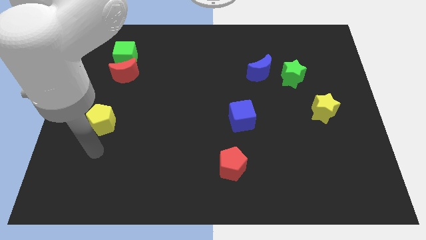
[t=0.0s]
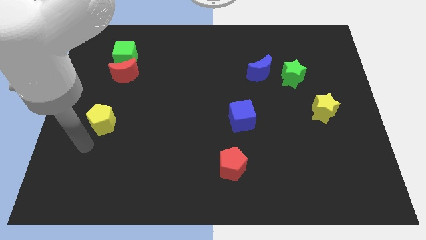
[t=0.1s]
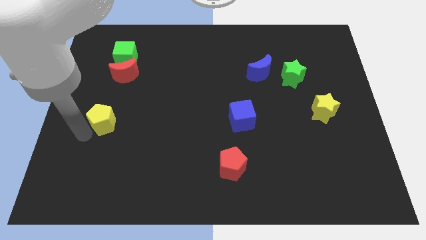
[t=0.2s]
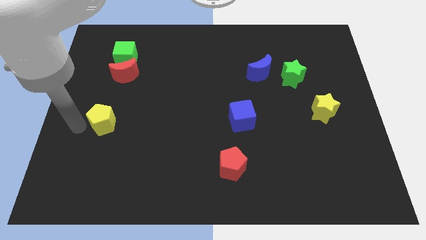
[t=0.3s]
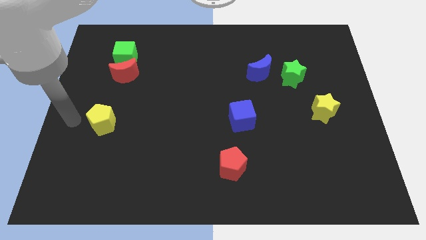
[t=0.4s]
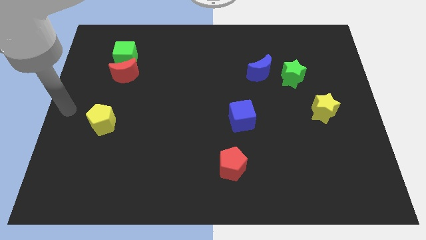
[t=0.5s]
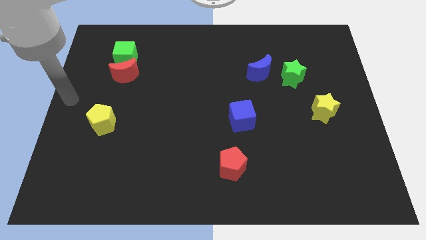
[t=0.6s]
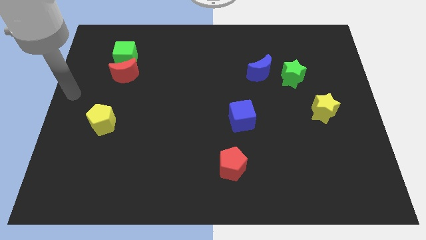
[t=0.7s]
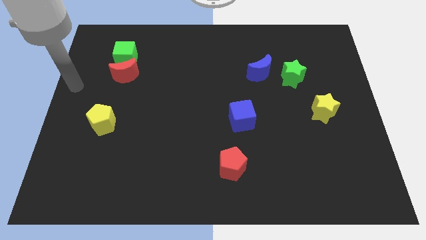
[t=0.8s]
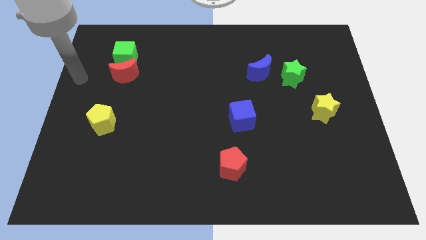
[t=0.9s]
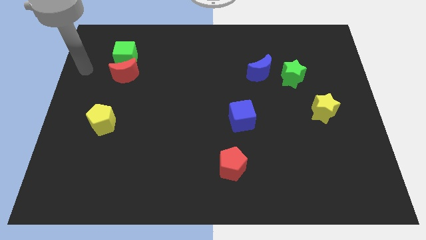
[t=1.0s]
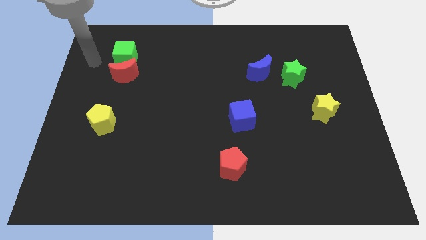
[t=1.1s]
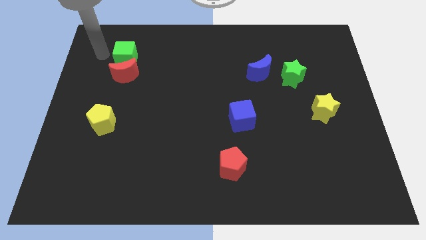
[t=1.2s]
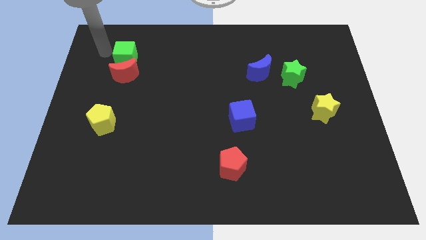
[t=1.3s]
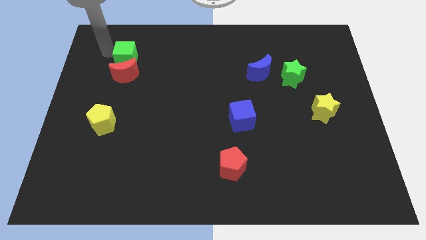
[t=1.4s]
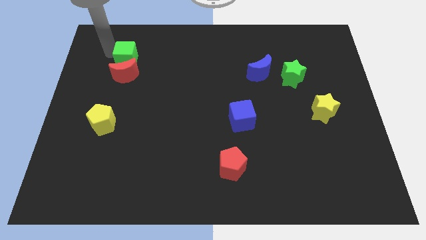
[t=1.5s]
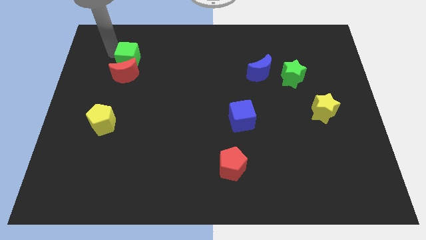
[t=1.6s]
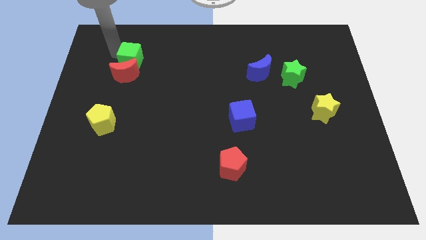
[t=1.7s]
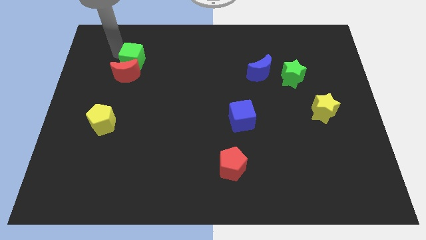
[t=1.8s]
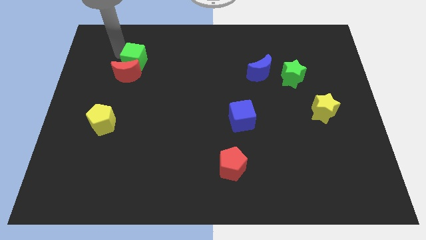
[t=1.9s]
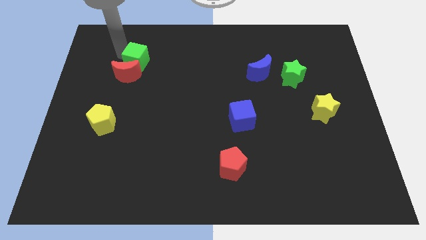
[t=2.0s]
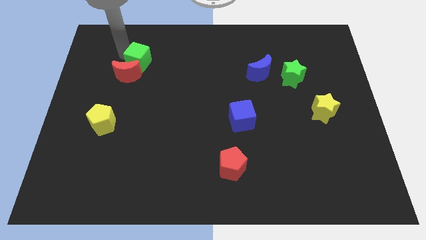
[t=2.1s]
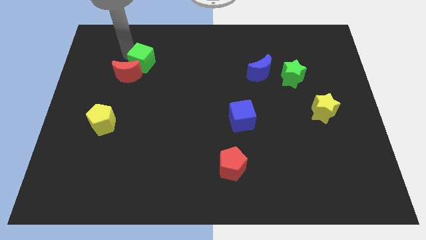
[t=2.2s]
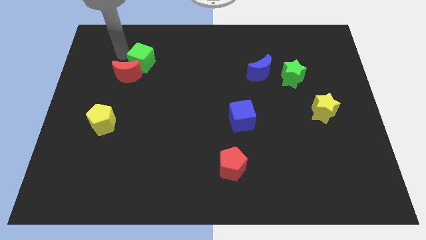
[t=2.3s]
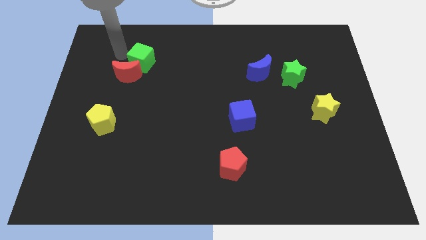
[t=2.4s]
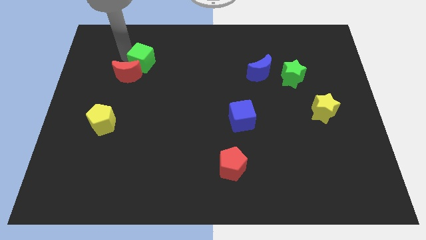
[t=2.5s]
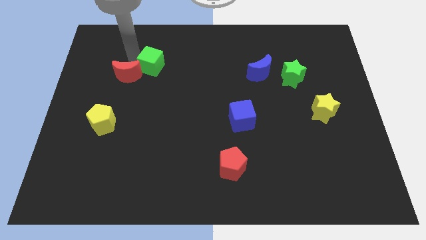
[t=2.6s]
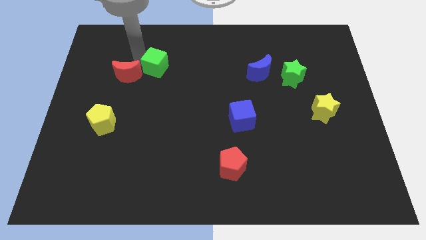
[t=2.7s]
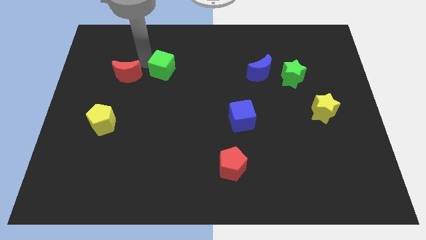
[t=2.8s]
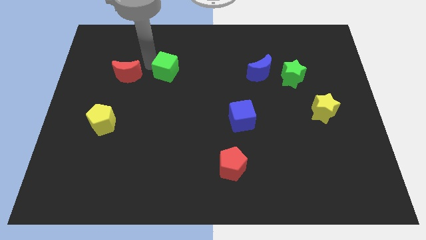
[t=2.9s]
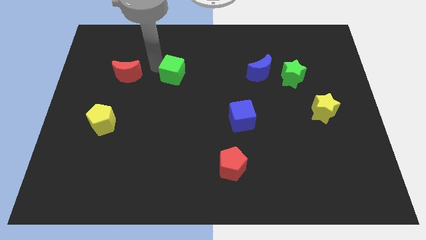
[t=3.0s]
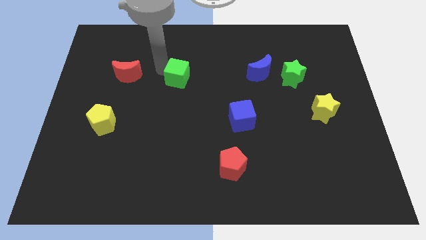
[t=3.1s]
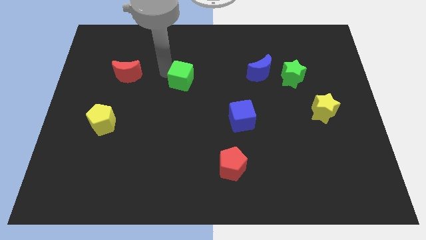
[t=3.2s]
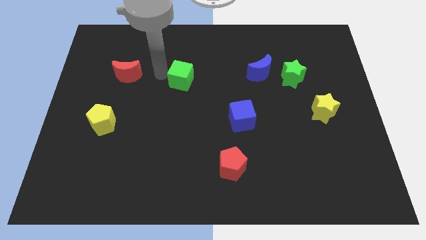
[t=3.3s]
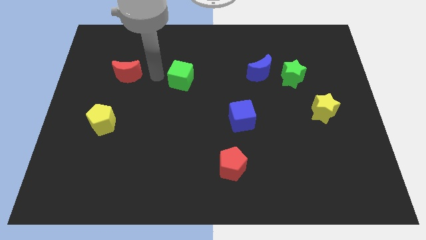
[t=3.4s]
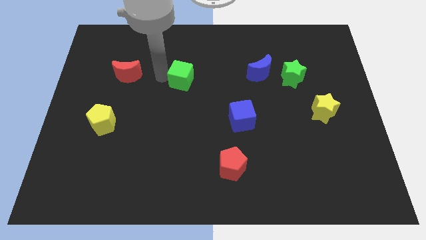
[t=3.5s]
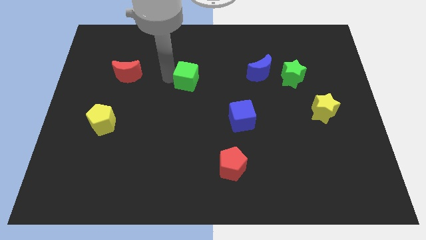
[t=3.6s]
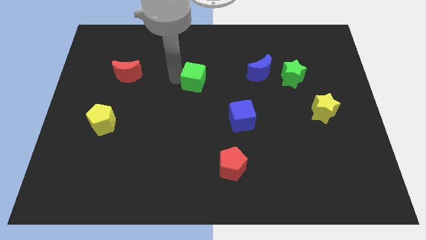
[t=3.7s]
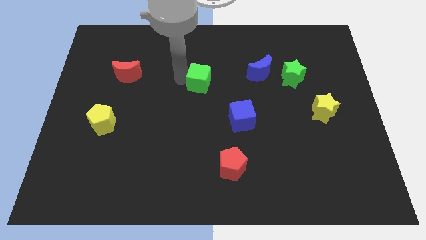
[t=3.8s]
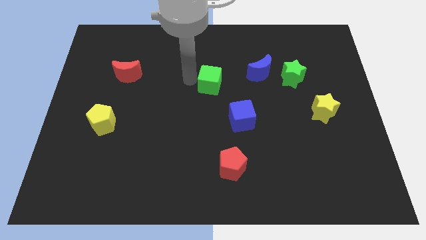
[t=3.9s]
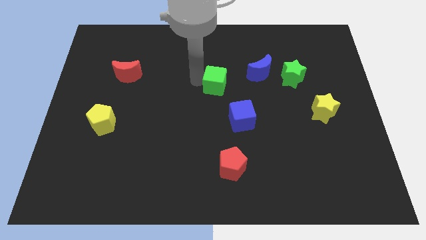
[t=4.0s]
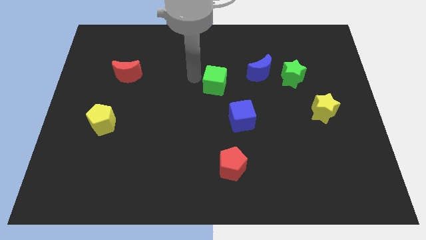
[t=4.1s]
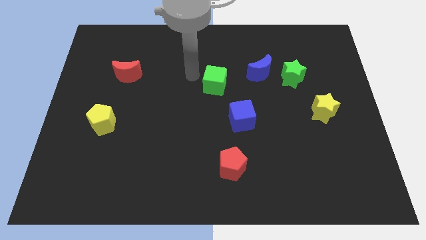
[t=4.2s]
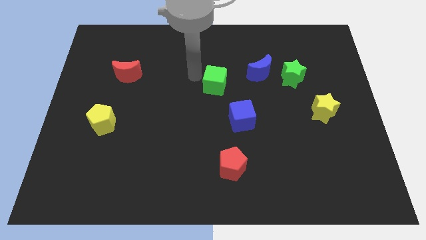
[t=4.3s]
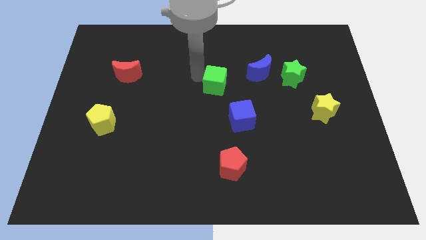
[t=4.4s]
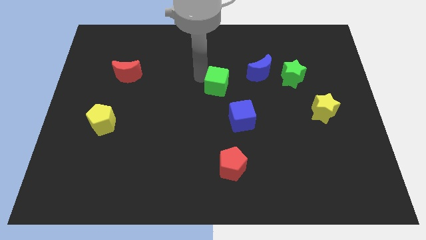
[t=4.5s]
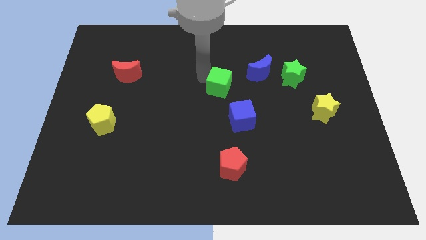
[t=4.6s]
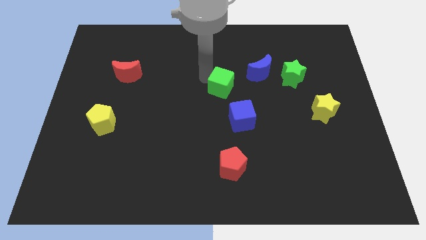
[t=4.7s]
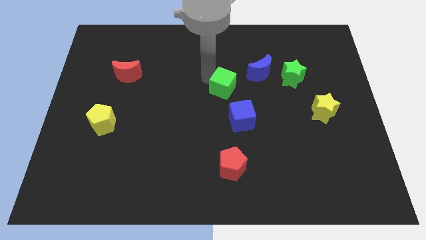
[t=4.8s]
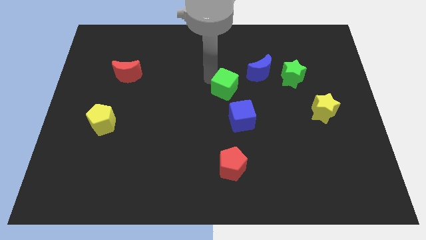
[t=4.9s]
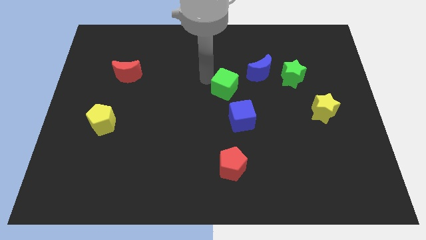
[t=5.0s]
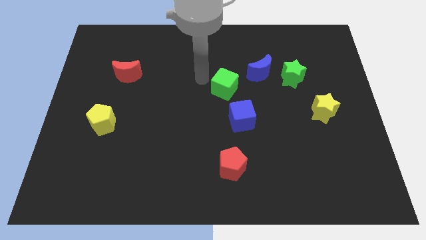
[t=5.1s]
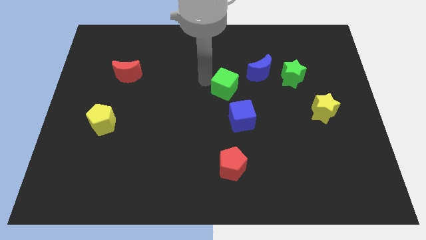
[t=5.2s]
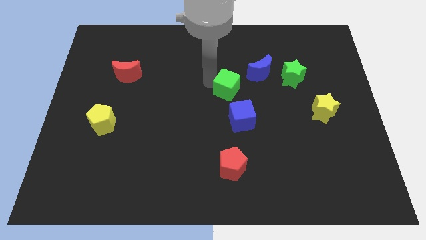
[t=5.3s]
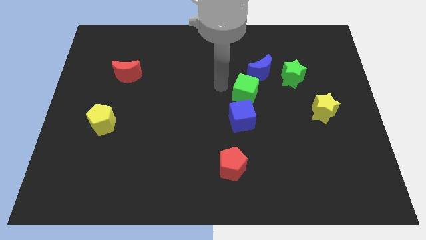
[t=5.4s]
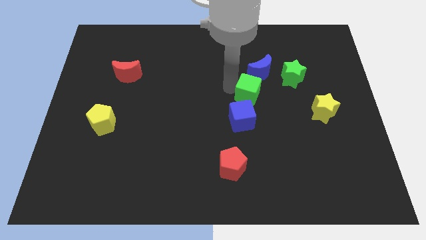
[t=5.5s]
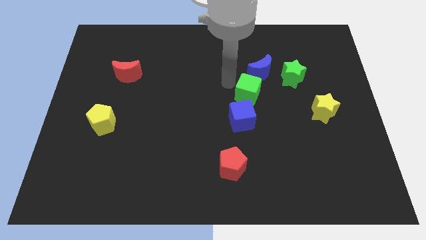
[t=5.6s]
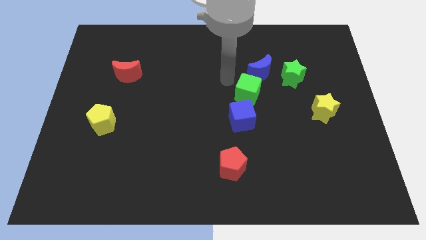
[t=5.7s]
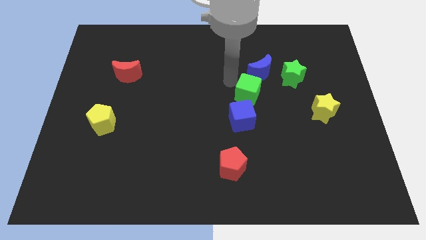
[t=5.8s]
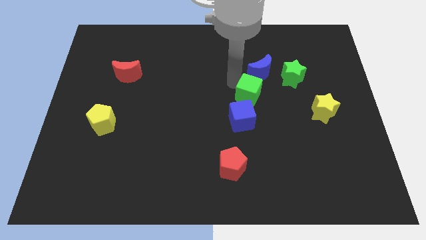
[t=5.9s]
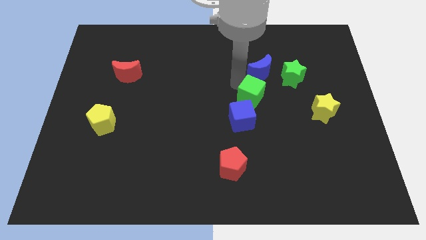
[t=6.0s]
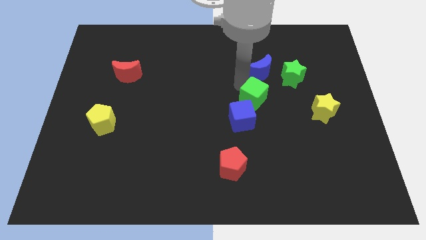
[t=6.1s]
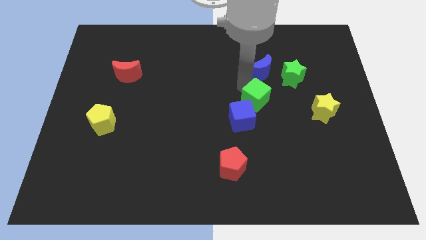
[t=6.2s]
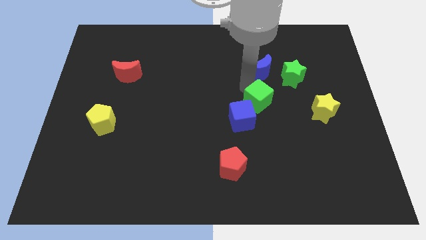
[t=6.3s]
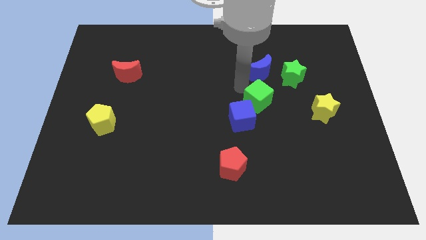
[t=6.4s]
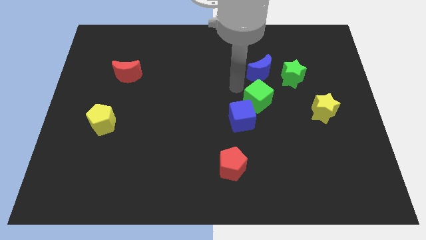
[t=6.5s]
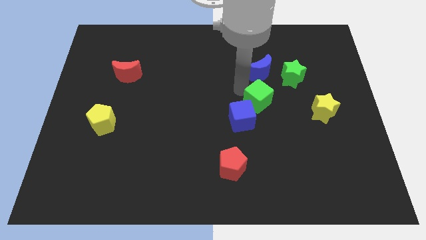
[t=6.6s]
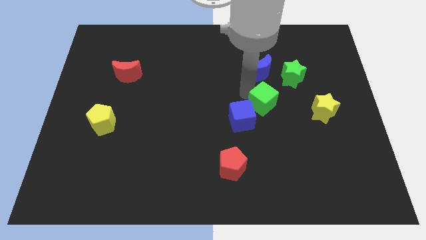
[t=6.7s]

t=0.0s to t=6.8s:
move the green cube to the left of the yellow star
